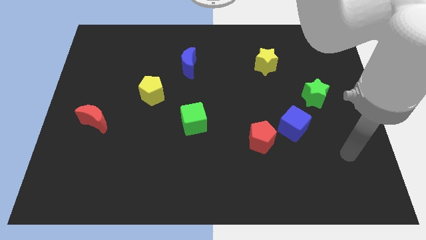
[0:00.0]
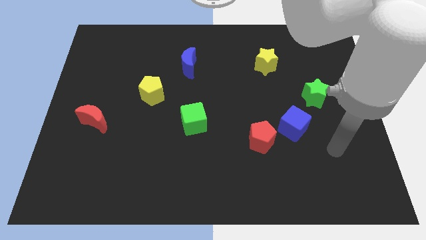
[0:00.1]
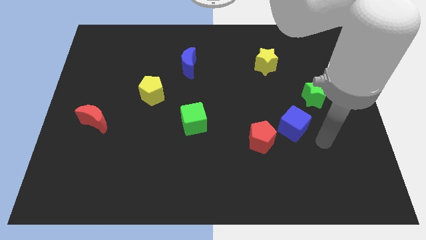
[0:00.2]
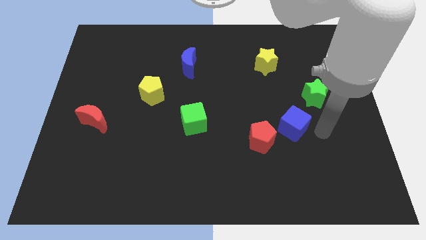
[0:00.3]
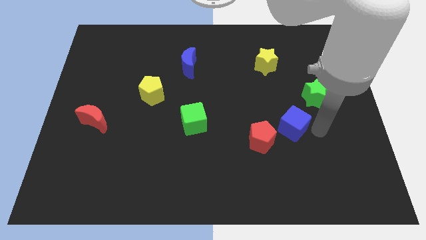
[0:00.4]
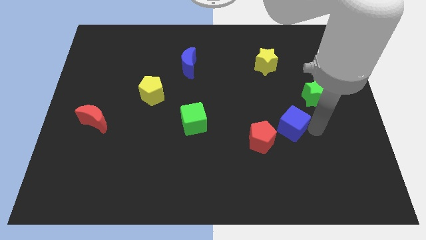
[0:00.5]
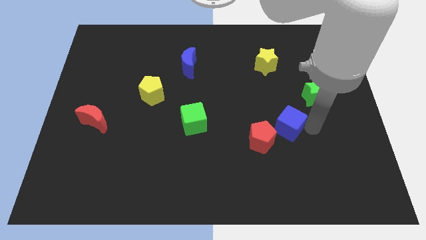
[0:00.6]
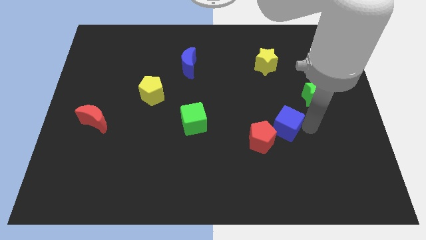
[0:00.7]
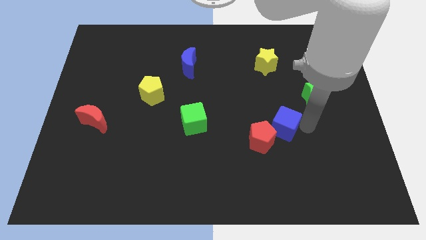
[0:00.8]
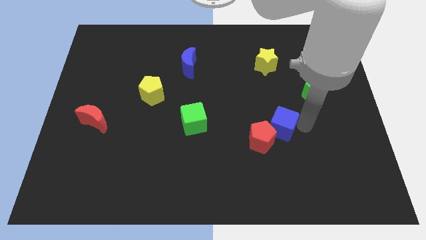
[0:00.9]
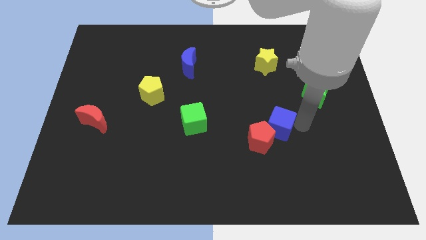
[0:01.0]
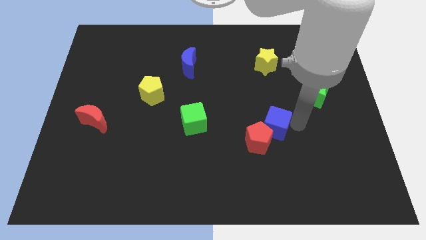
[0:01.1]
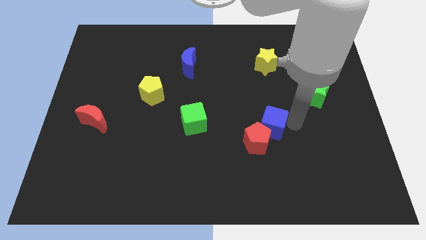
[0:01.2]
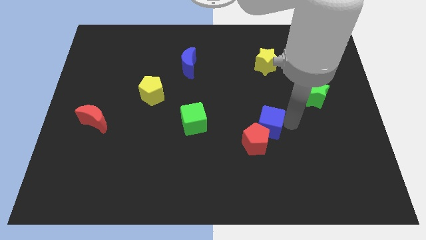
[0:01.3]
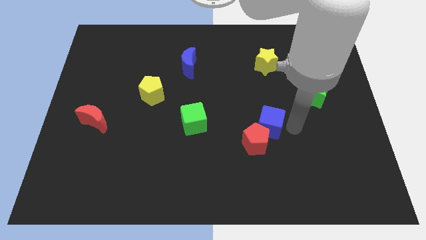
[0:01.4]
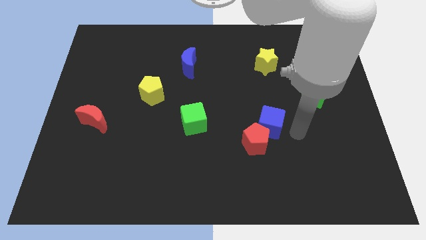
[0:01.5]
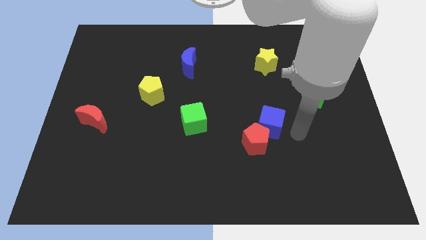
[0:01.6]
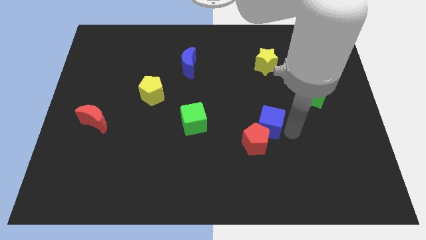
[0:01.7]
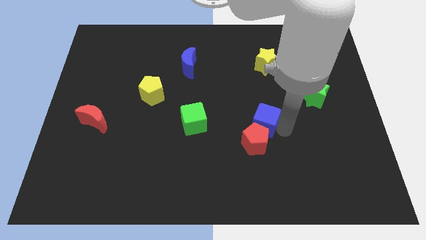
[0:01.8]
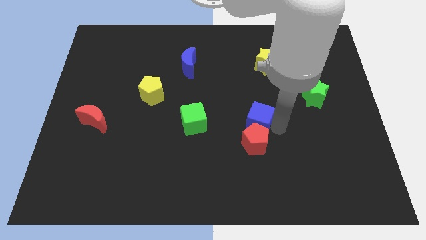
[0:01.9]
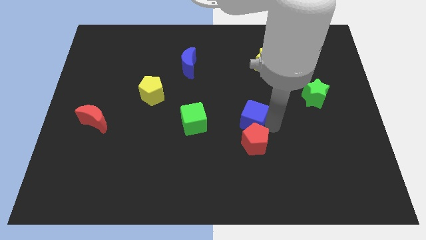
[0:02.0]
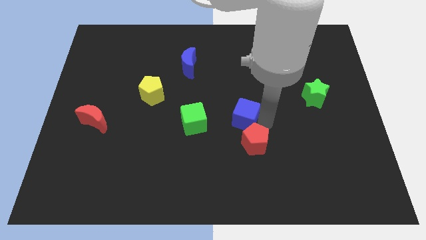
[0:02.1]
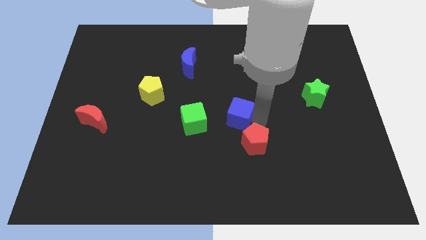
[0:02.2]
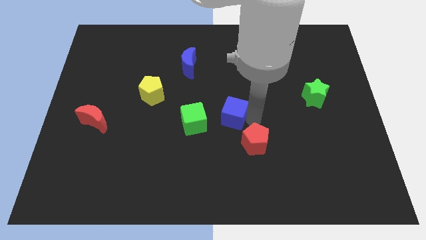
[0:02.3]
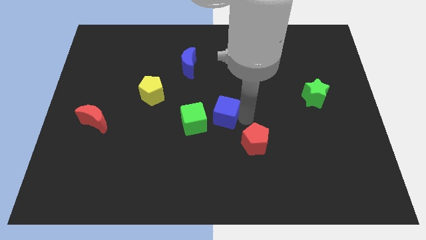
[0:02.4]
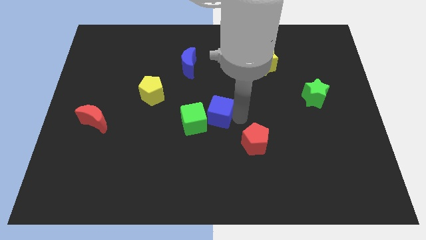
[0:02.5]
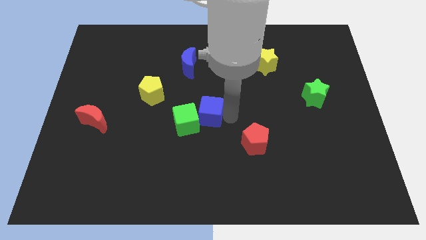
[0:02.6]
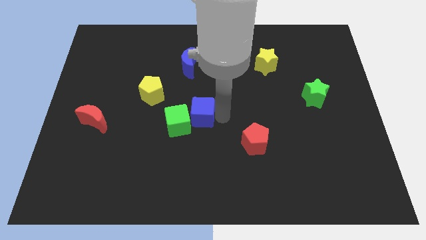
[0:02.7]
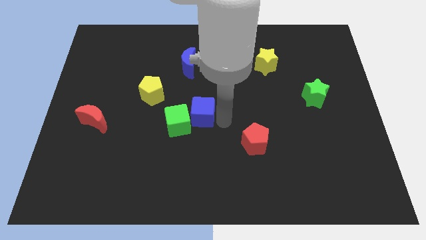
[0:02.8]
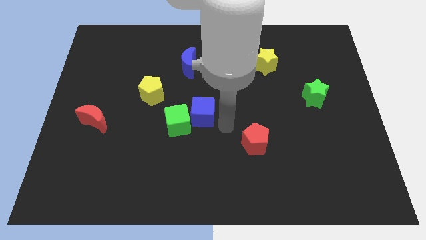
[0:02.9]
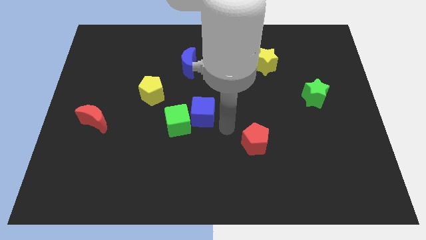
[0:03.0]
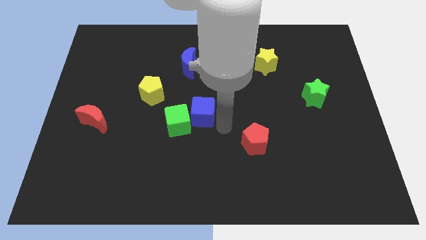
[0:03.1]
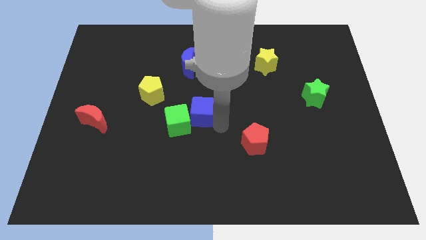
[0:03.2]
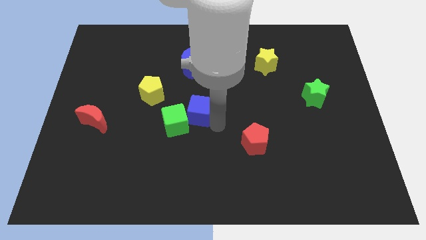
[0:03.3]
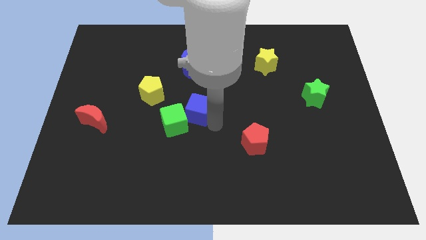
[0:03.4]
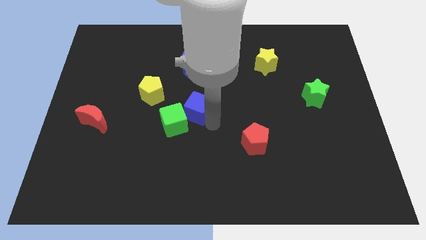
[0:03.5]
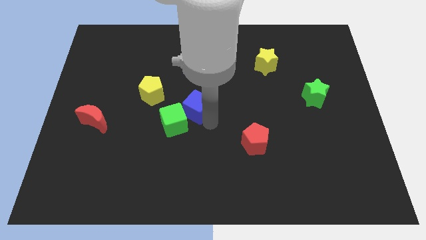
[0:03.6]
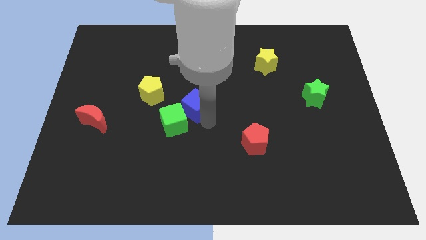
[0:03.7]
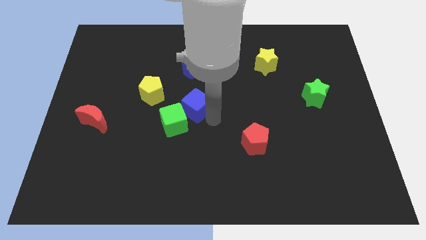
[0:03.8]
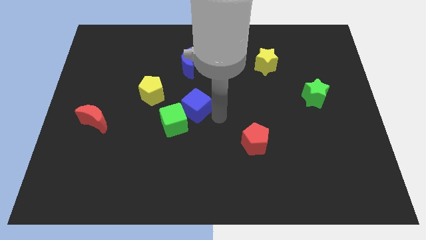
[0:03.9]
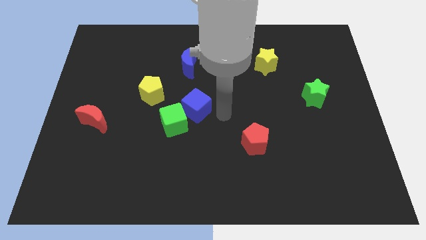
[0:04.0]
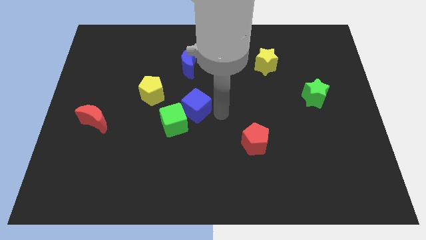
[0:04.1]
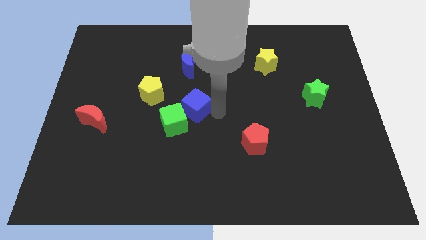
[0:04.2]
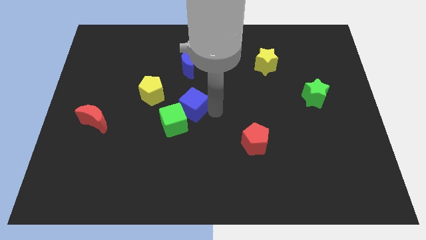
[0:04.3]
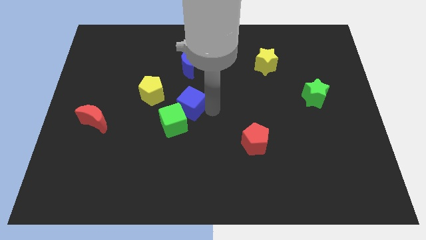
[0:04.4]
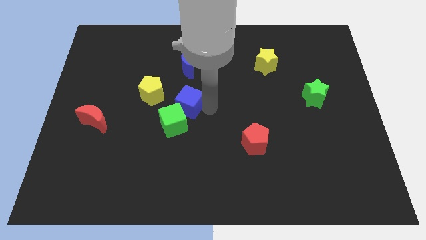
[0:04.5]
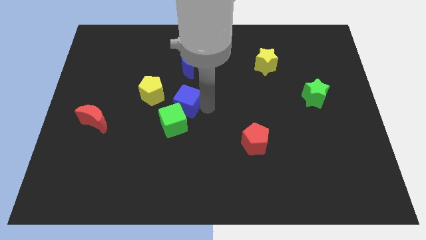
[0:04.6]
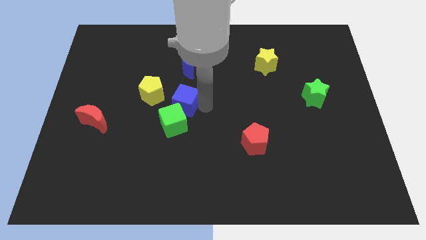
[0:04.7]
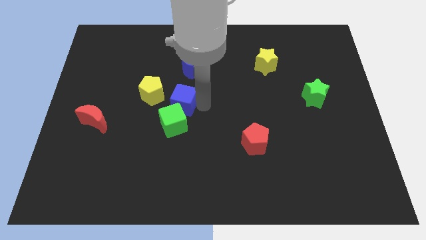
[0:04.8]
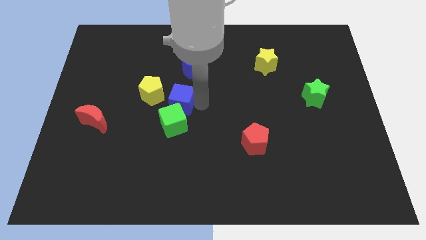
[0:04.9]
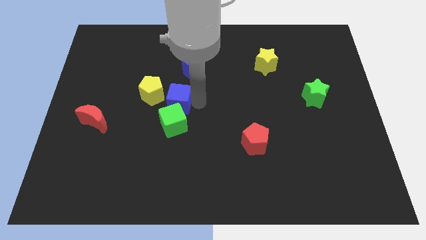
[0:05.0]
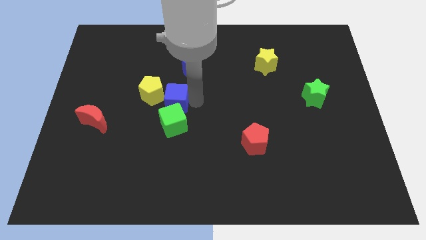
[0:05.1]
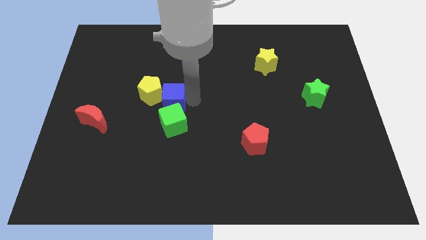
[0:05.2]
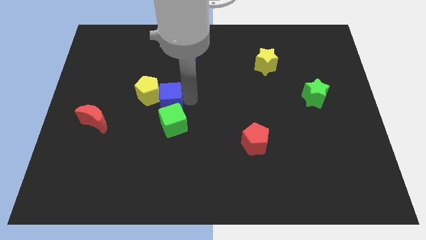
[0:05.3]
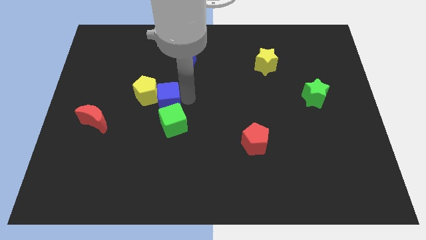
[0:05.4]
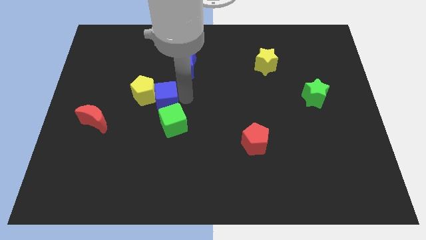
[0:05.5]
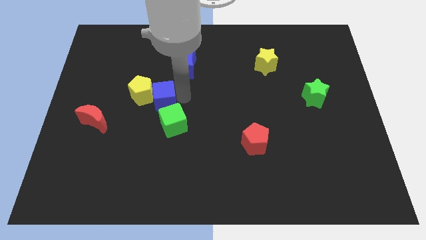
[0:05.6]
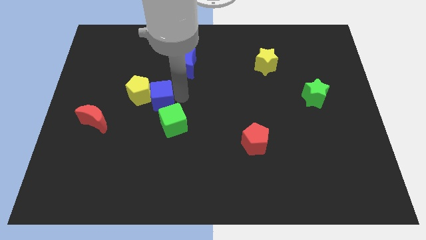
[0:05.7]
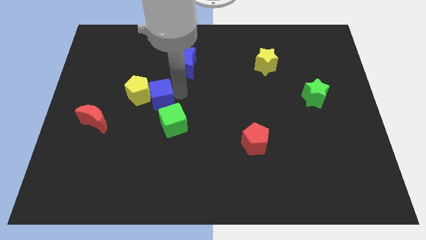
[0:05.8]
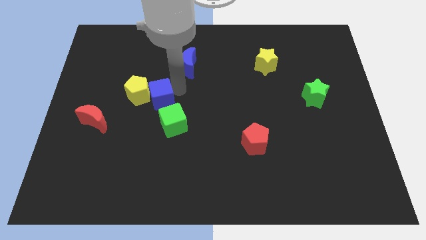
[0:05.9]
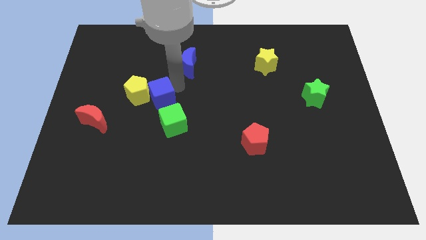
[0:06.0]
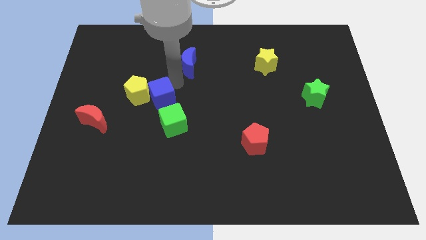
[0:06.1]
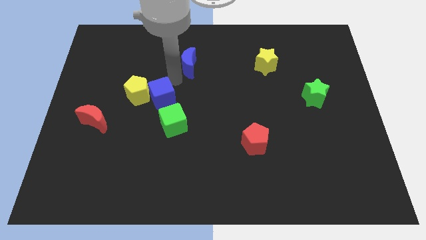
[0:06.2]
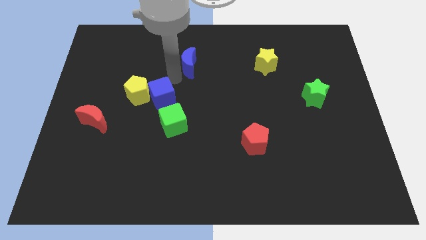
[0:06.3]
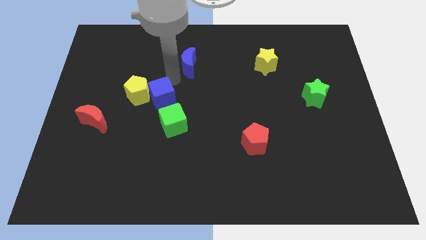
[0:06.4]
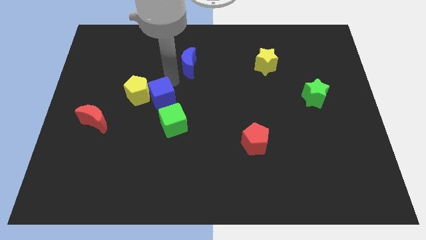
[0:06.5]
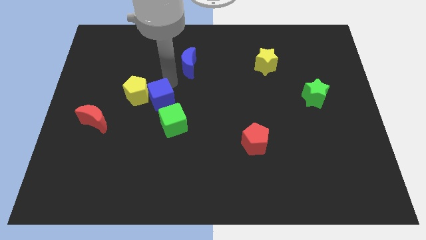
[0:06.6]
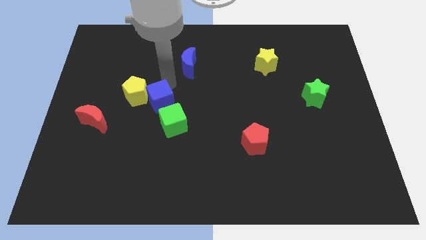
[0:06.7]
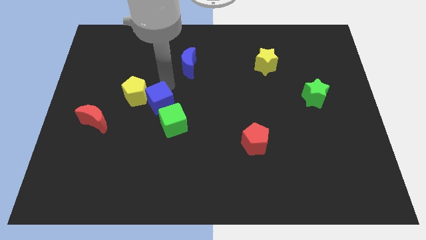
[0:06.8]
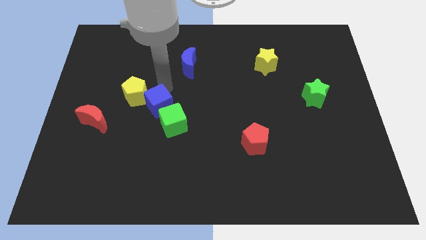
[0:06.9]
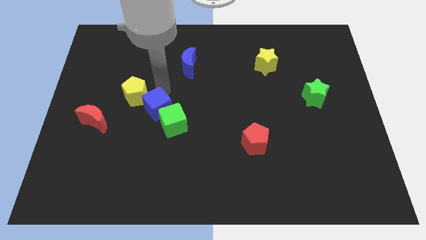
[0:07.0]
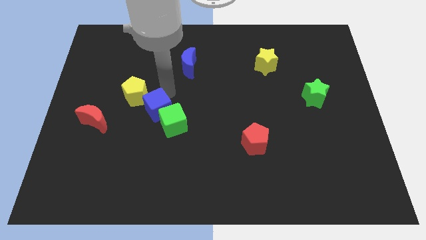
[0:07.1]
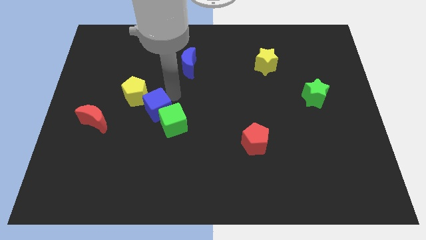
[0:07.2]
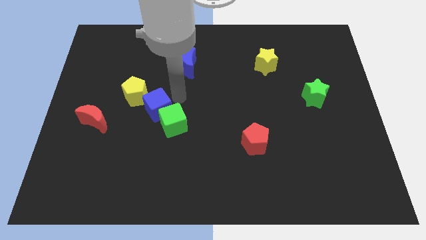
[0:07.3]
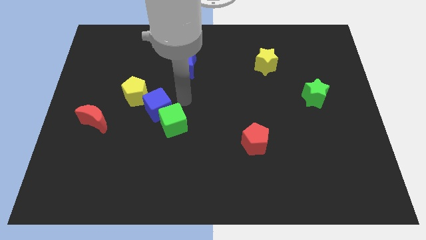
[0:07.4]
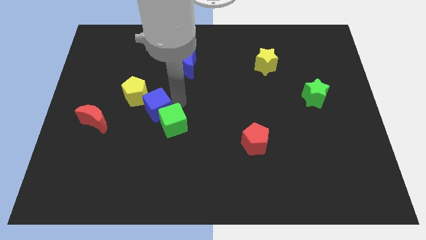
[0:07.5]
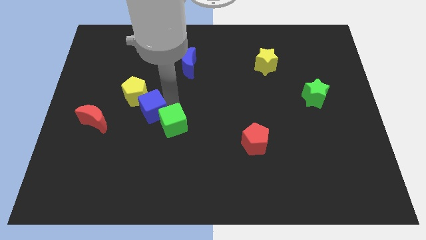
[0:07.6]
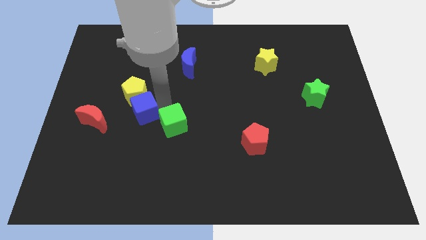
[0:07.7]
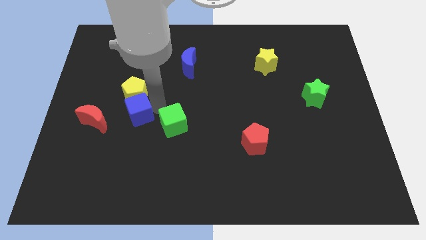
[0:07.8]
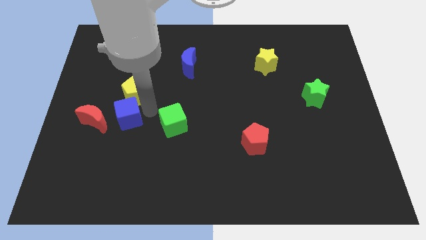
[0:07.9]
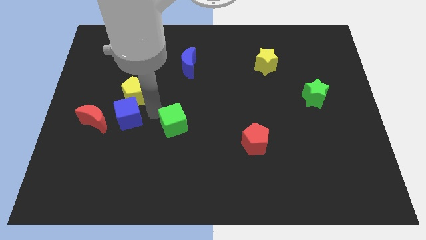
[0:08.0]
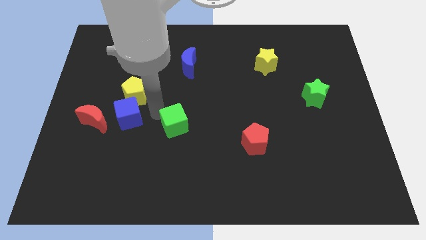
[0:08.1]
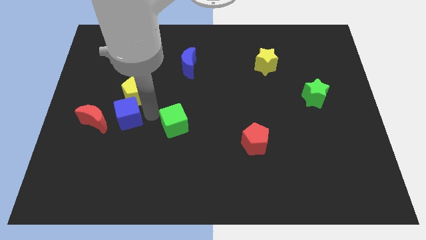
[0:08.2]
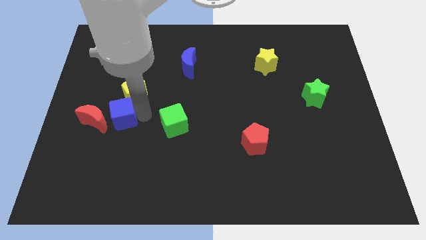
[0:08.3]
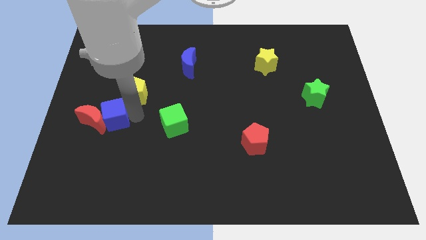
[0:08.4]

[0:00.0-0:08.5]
move the blue cube towards the red moon
